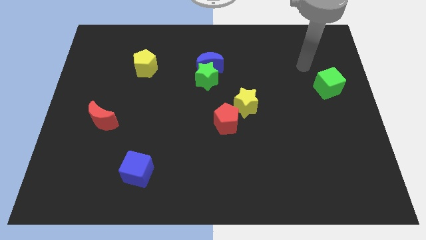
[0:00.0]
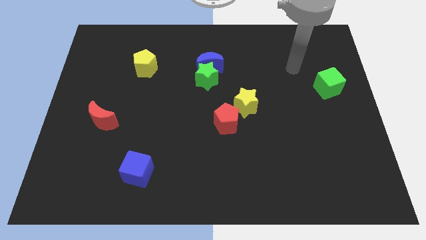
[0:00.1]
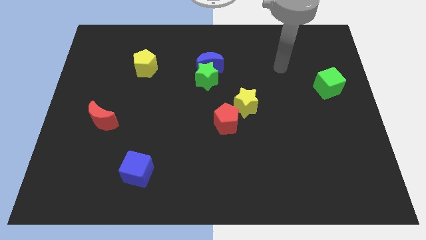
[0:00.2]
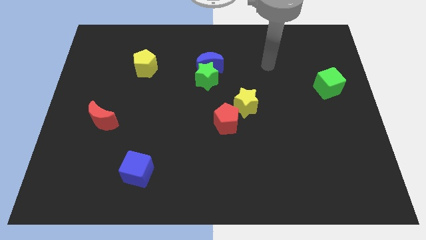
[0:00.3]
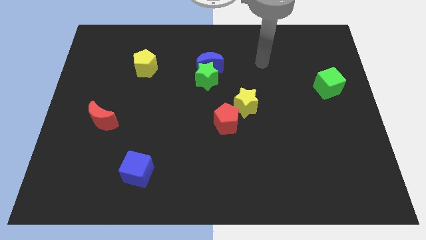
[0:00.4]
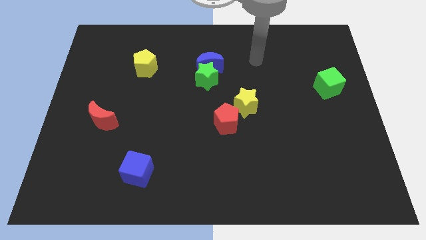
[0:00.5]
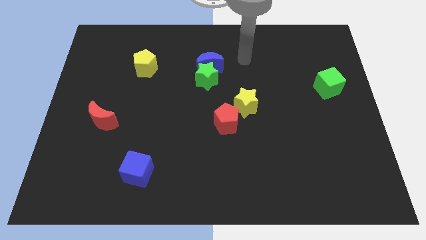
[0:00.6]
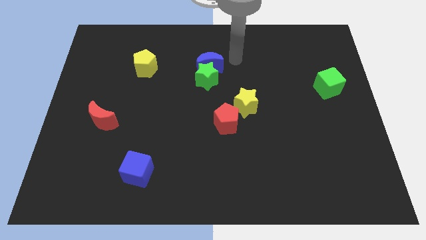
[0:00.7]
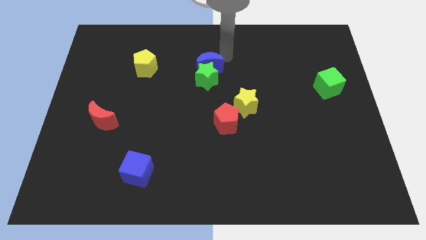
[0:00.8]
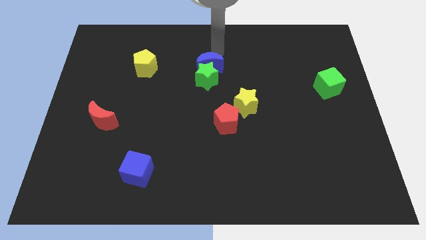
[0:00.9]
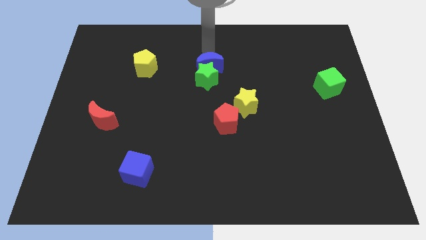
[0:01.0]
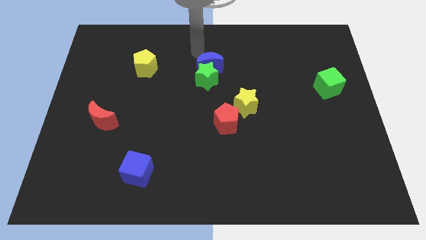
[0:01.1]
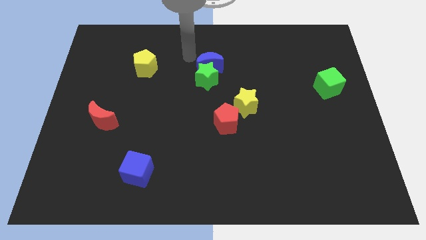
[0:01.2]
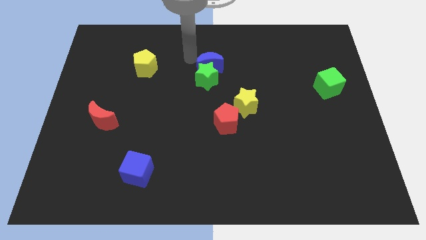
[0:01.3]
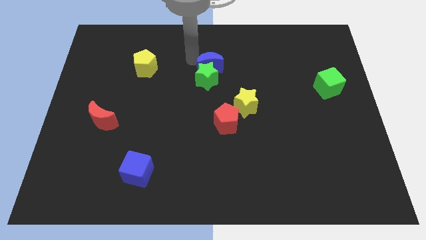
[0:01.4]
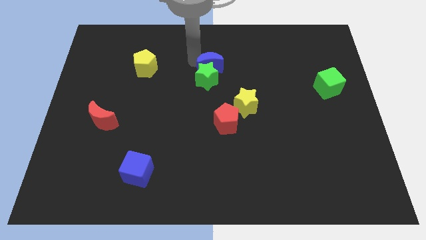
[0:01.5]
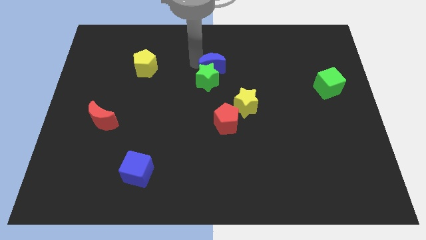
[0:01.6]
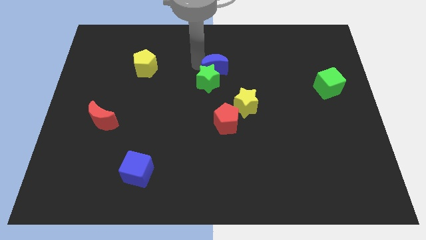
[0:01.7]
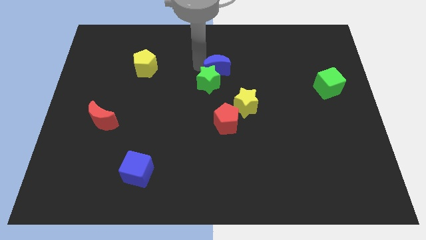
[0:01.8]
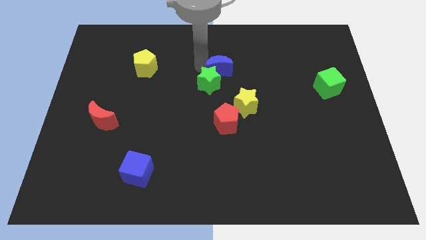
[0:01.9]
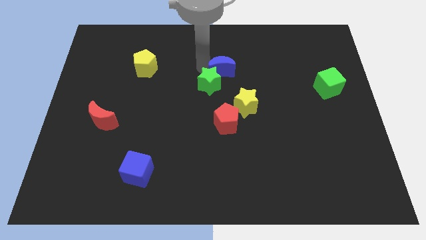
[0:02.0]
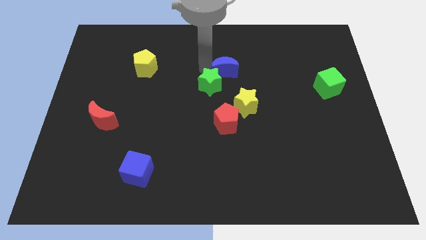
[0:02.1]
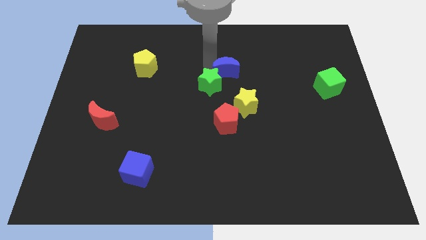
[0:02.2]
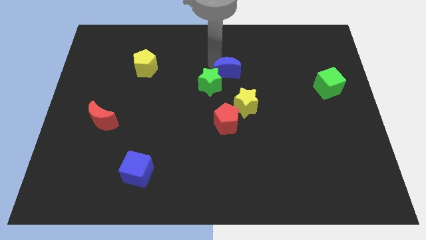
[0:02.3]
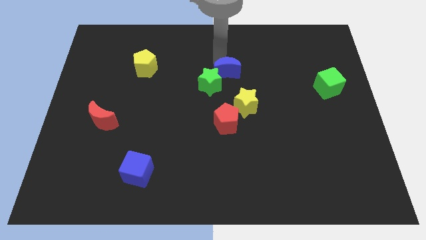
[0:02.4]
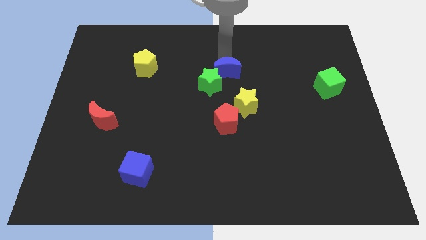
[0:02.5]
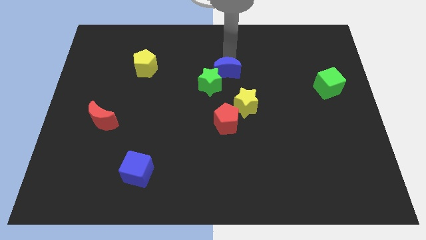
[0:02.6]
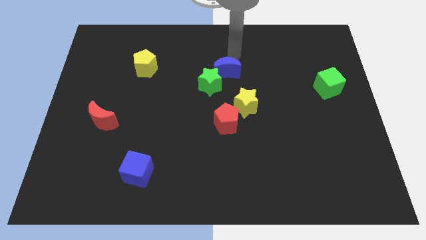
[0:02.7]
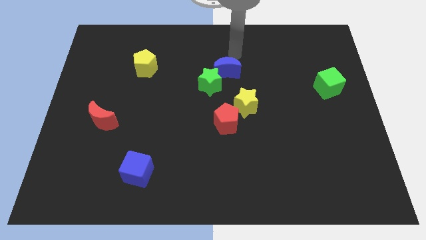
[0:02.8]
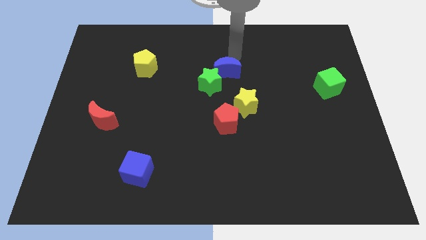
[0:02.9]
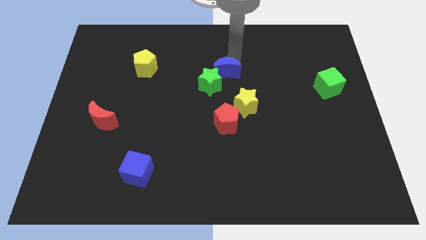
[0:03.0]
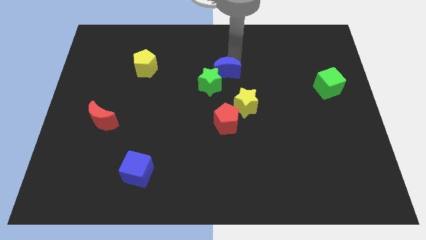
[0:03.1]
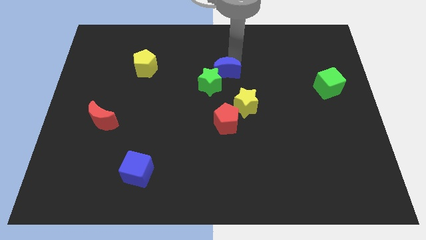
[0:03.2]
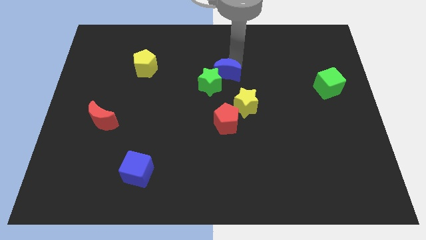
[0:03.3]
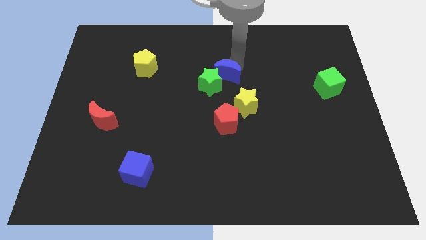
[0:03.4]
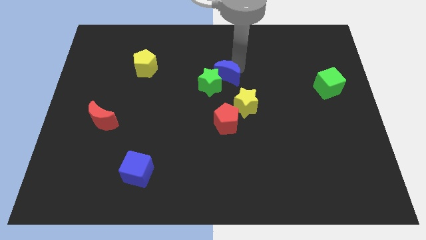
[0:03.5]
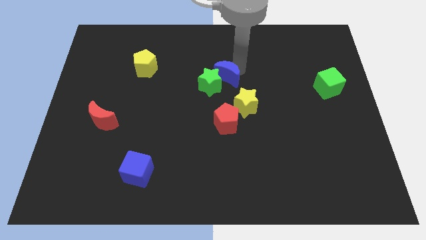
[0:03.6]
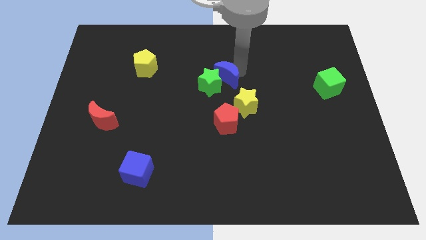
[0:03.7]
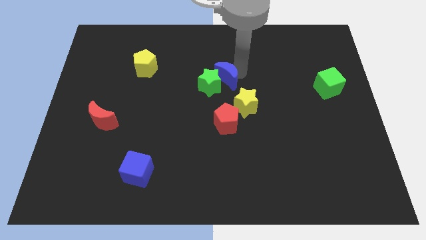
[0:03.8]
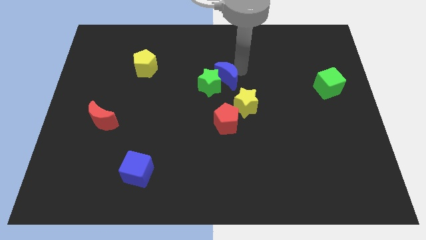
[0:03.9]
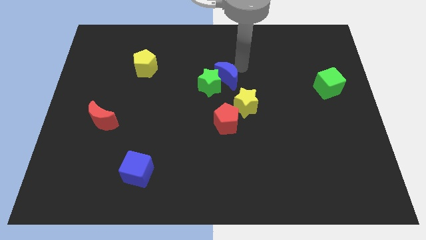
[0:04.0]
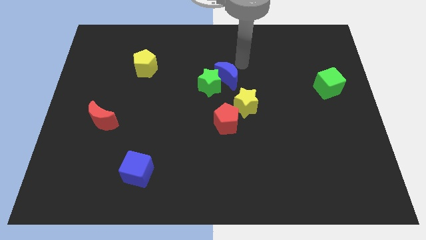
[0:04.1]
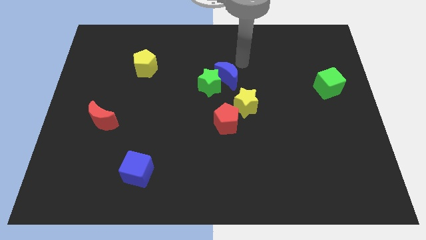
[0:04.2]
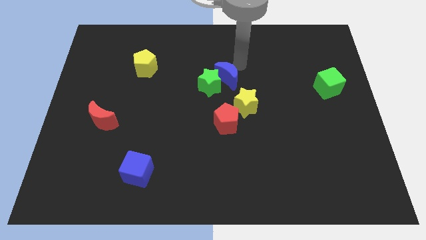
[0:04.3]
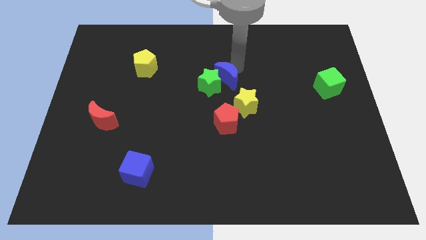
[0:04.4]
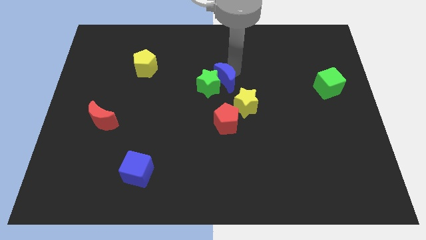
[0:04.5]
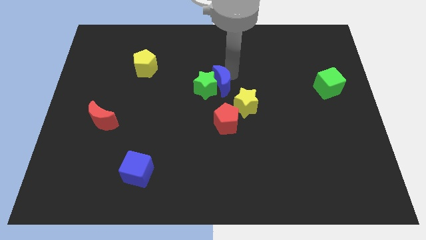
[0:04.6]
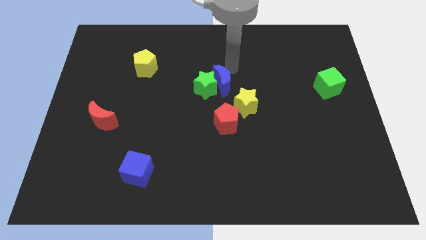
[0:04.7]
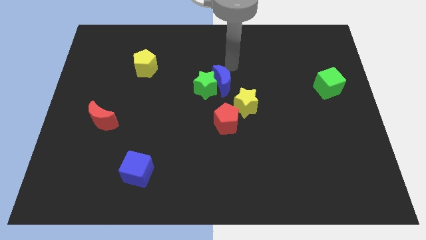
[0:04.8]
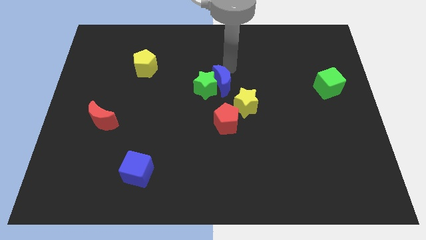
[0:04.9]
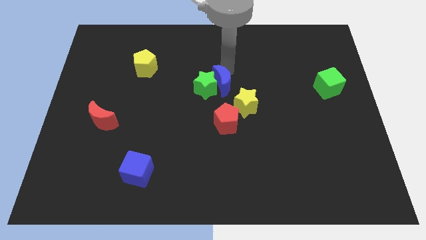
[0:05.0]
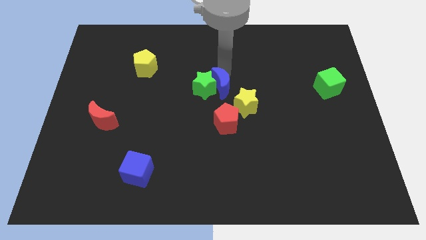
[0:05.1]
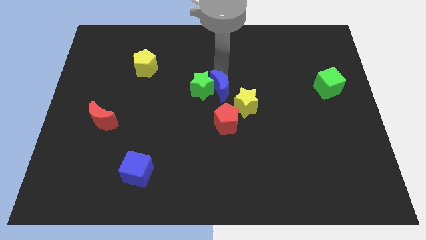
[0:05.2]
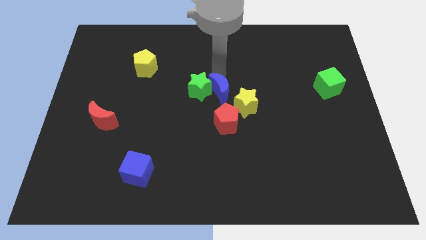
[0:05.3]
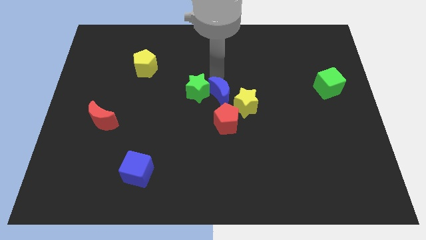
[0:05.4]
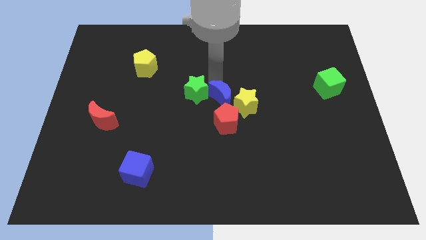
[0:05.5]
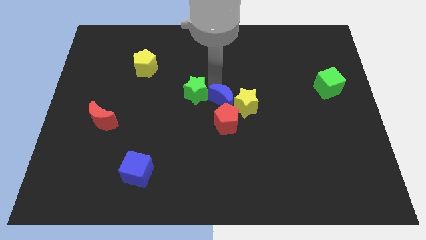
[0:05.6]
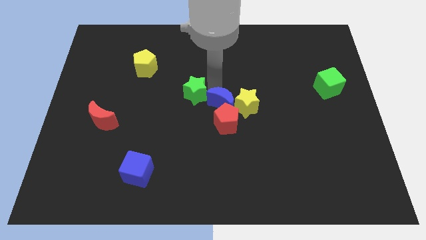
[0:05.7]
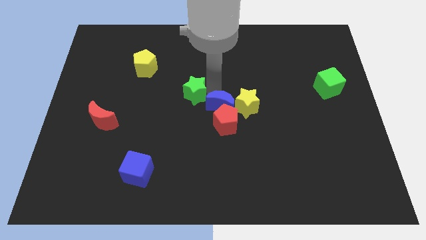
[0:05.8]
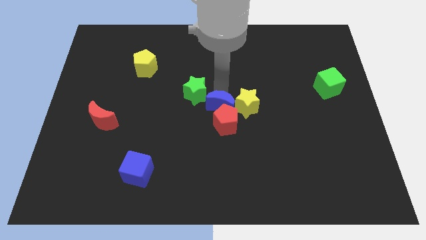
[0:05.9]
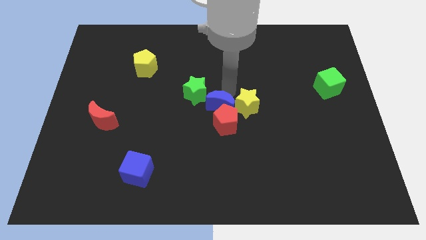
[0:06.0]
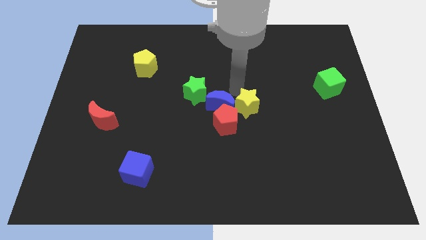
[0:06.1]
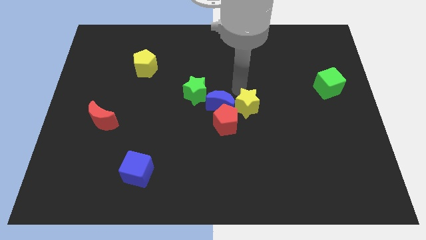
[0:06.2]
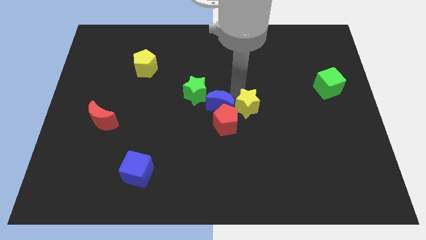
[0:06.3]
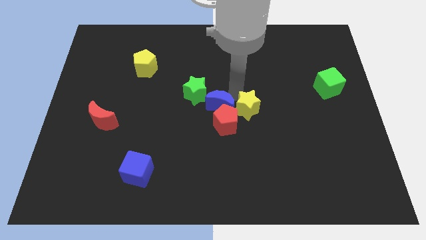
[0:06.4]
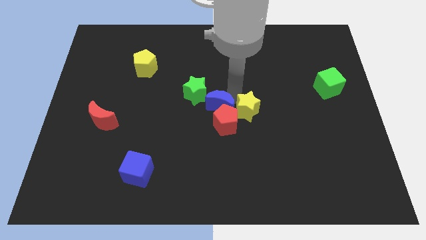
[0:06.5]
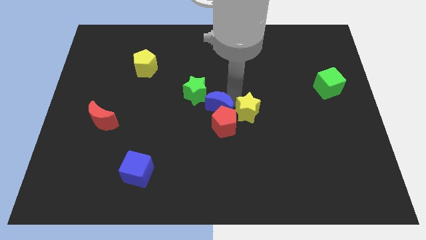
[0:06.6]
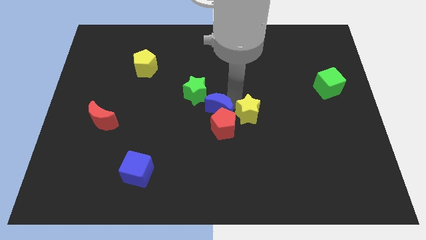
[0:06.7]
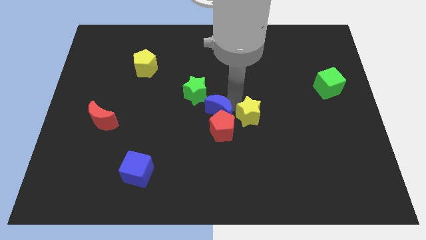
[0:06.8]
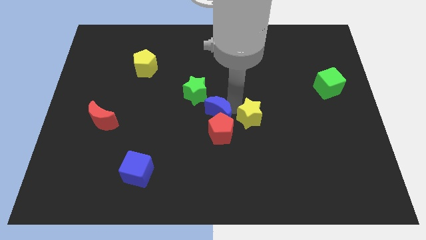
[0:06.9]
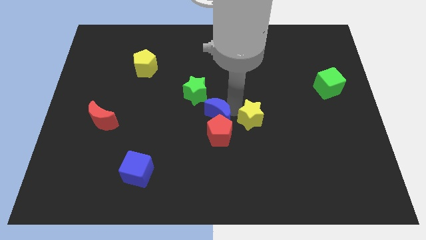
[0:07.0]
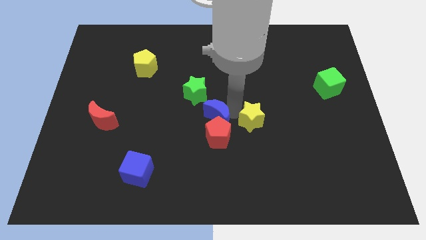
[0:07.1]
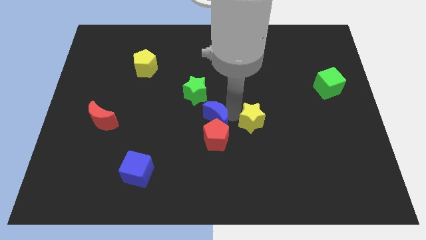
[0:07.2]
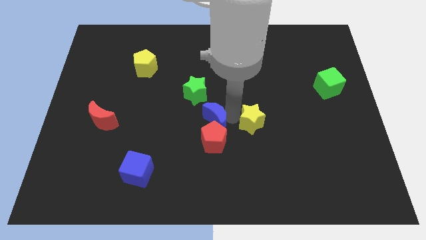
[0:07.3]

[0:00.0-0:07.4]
put the blue moon below the green star

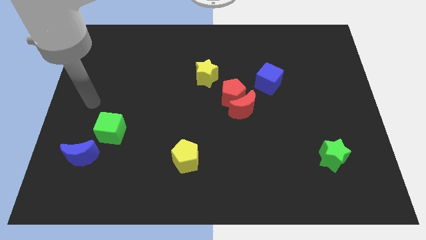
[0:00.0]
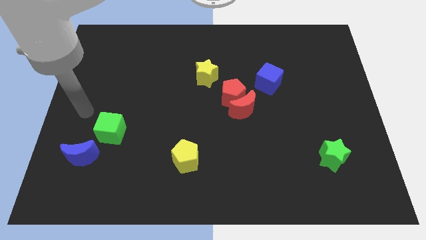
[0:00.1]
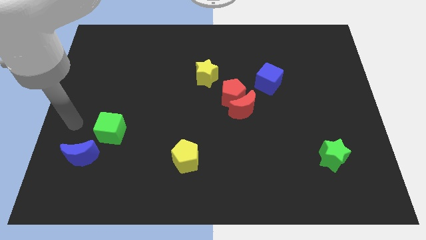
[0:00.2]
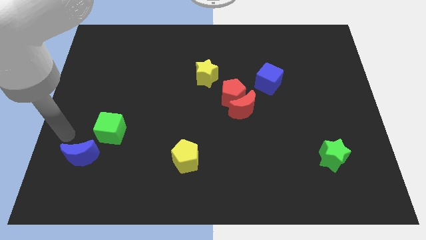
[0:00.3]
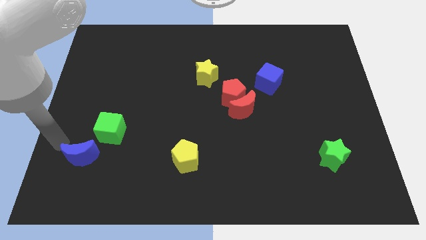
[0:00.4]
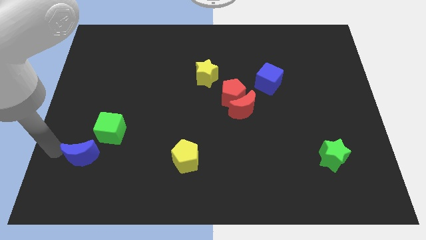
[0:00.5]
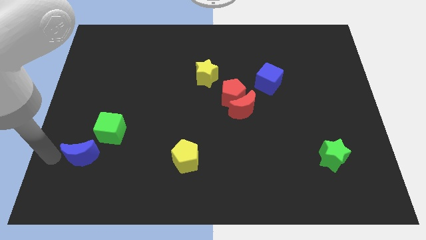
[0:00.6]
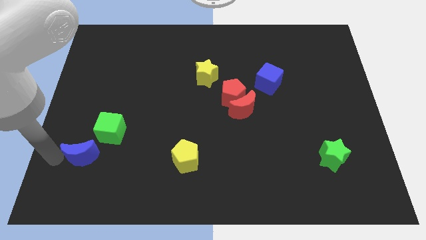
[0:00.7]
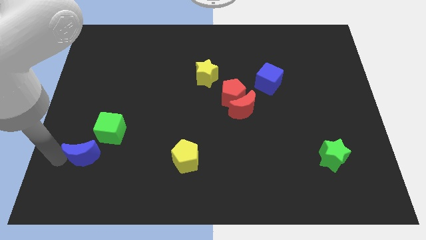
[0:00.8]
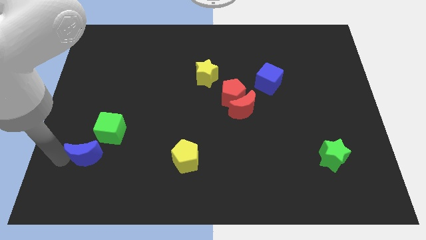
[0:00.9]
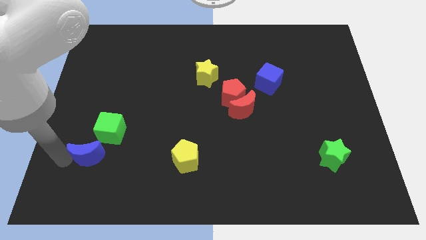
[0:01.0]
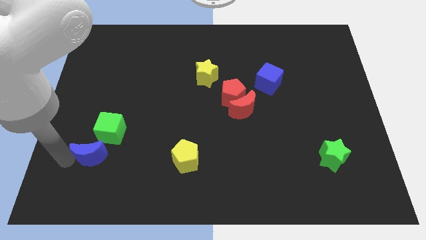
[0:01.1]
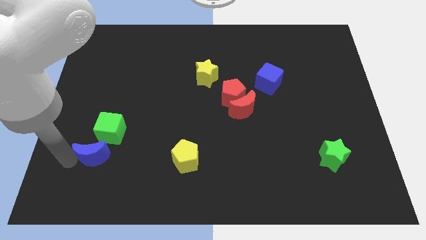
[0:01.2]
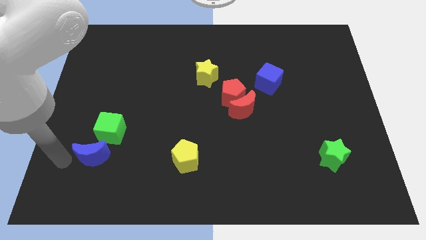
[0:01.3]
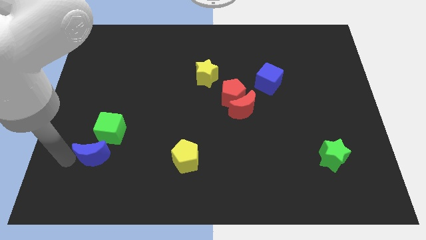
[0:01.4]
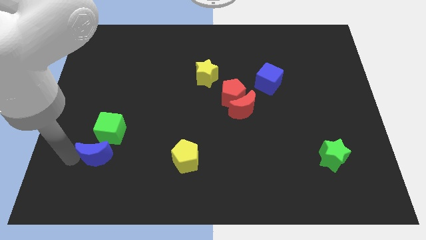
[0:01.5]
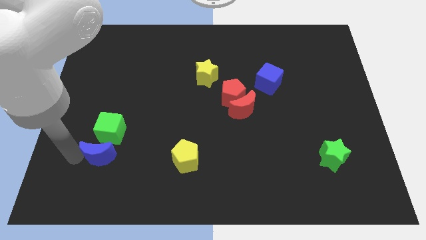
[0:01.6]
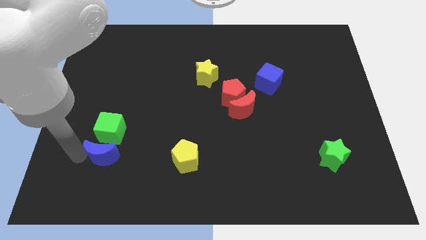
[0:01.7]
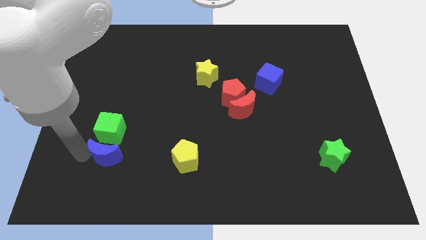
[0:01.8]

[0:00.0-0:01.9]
push the blue moon to the bottom right of the green cube
